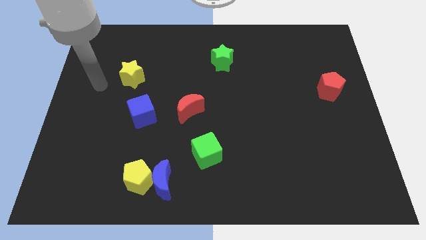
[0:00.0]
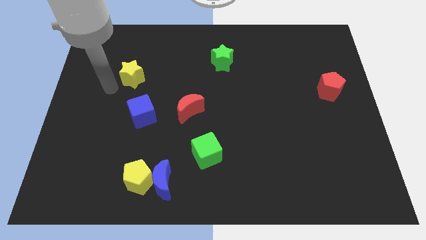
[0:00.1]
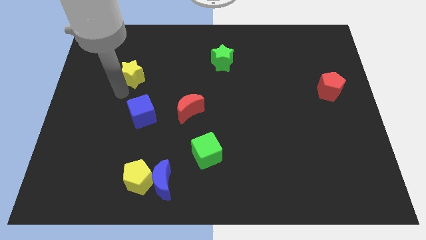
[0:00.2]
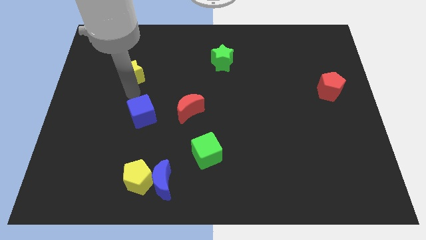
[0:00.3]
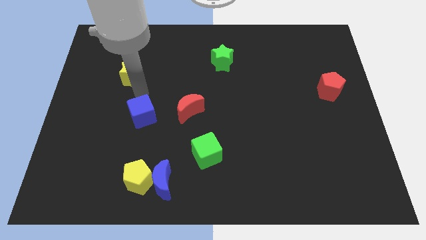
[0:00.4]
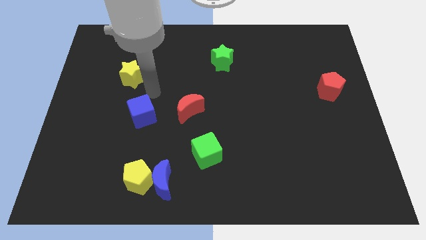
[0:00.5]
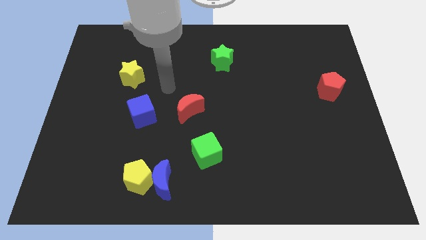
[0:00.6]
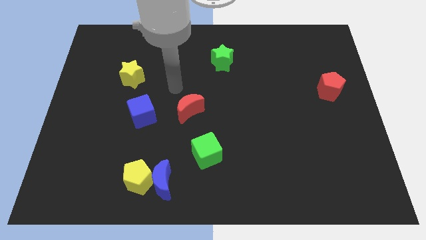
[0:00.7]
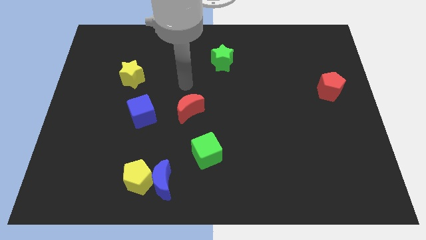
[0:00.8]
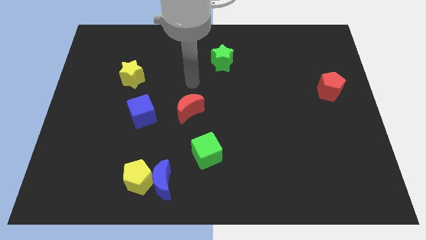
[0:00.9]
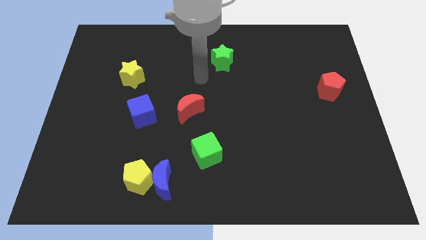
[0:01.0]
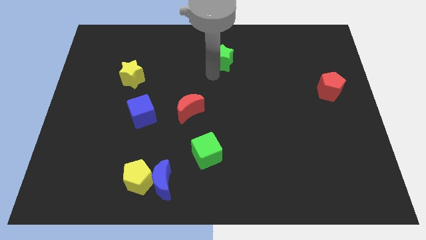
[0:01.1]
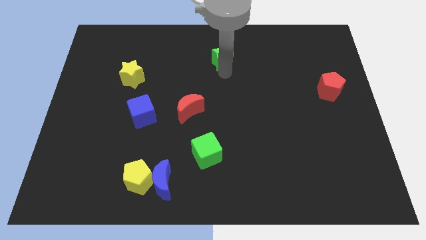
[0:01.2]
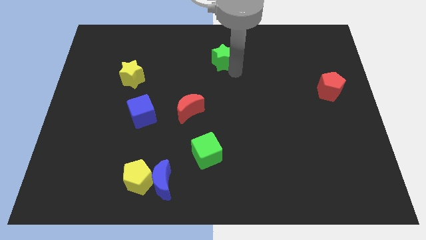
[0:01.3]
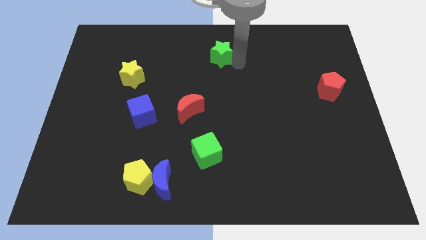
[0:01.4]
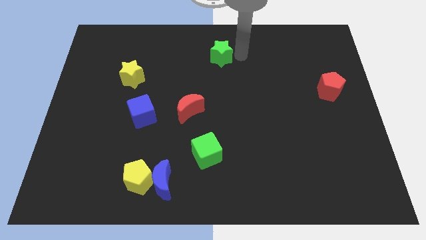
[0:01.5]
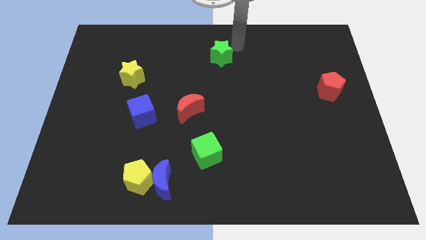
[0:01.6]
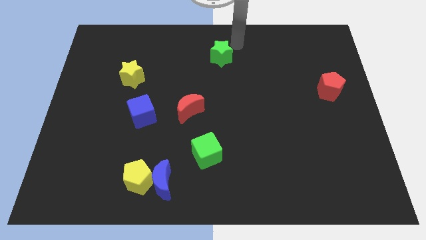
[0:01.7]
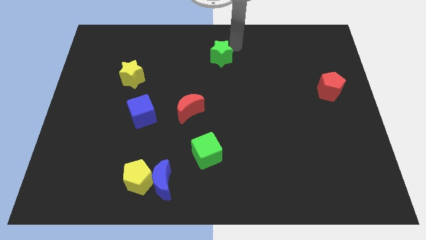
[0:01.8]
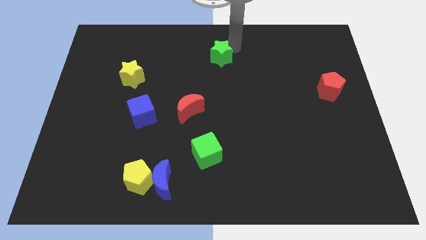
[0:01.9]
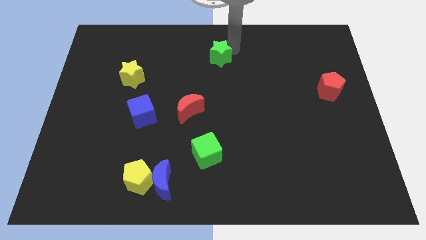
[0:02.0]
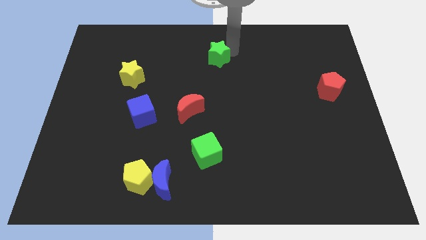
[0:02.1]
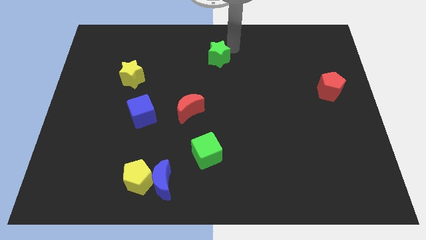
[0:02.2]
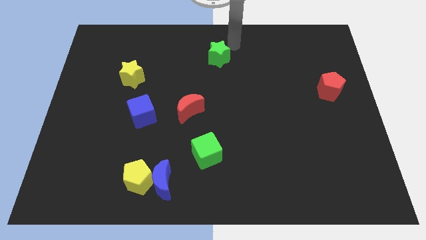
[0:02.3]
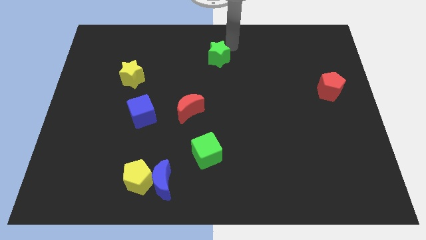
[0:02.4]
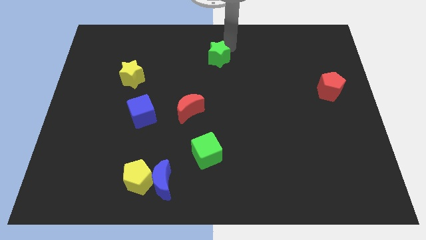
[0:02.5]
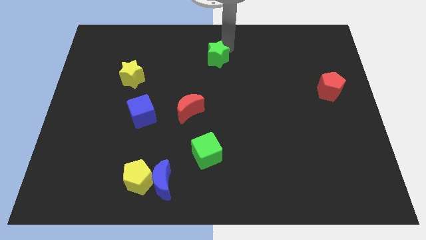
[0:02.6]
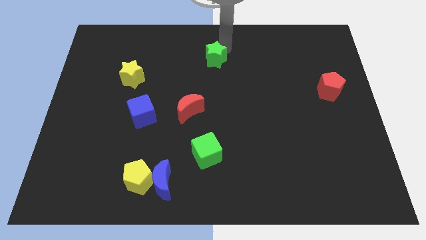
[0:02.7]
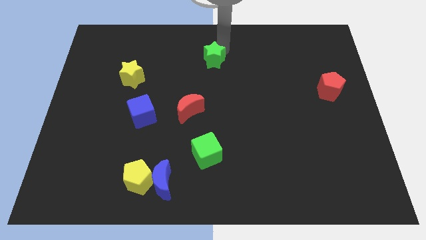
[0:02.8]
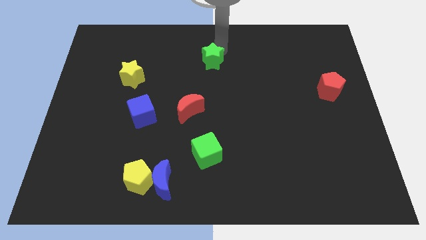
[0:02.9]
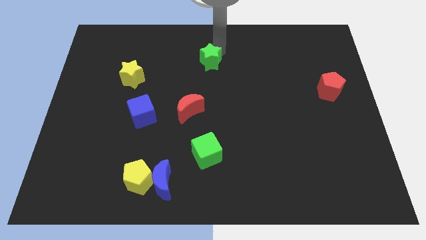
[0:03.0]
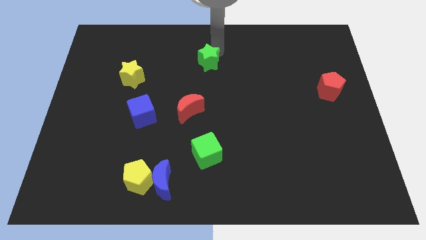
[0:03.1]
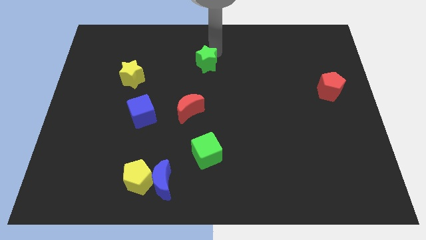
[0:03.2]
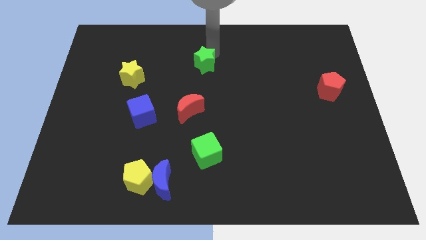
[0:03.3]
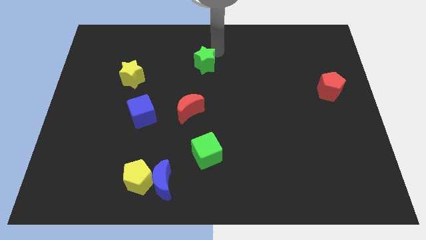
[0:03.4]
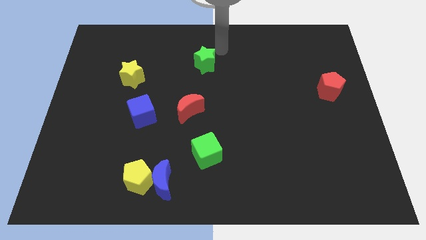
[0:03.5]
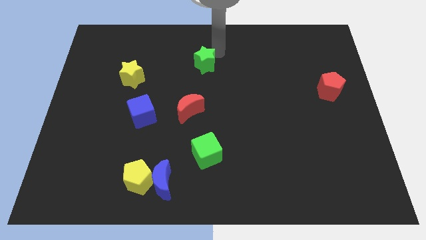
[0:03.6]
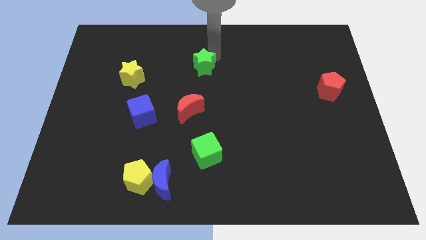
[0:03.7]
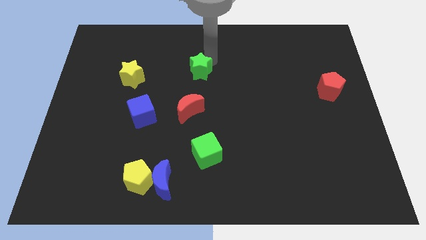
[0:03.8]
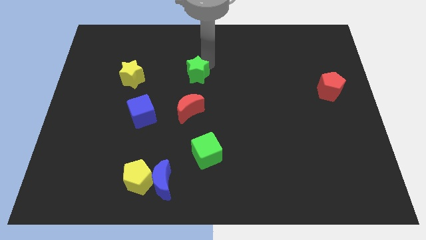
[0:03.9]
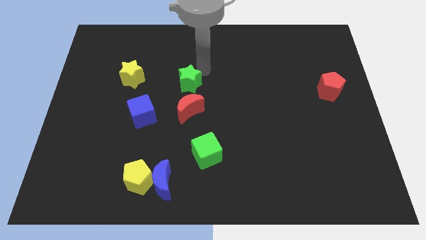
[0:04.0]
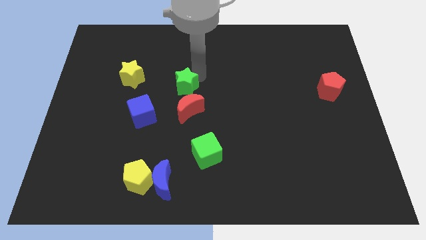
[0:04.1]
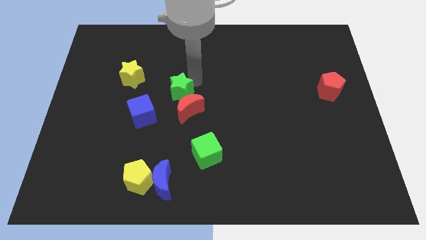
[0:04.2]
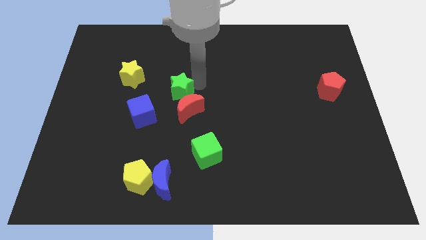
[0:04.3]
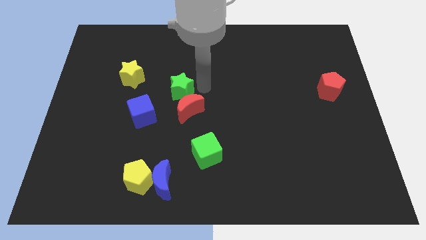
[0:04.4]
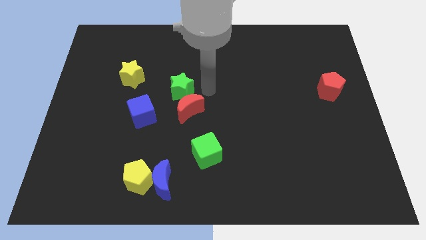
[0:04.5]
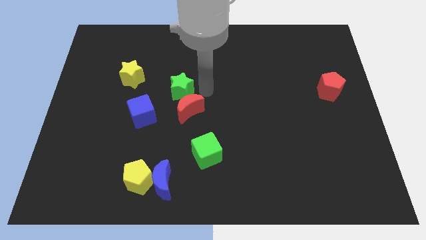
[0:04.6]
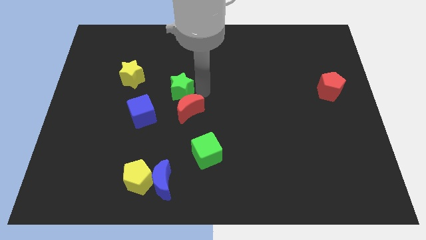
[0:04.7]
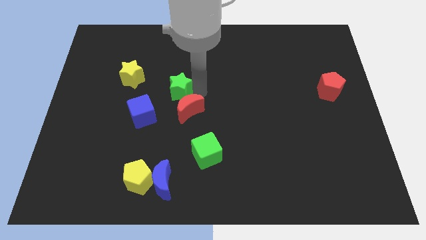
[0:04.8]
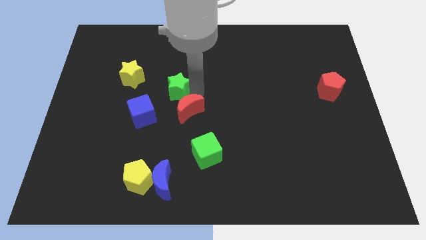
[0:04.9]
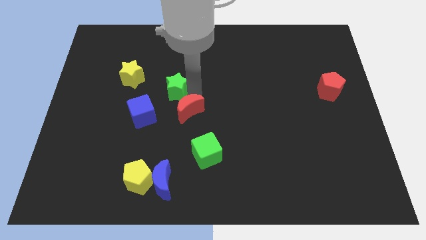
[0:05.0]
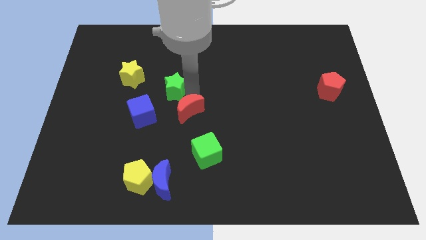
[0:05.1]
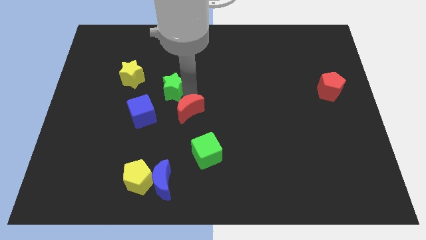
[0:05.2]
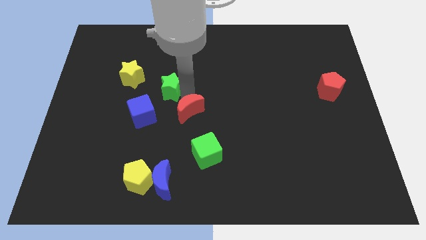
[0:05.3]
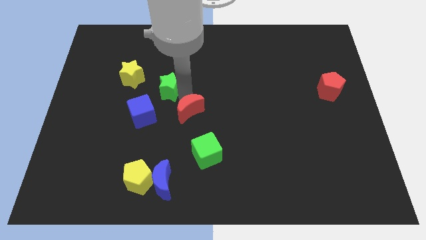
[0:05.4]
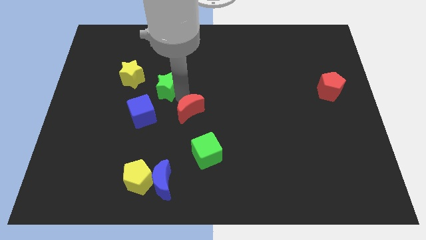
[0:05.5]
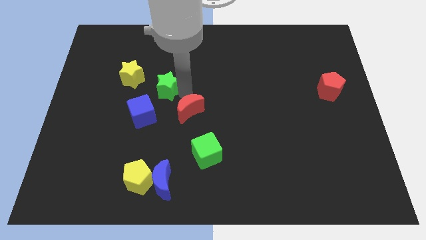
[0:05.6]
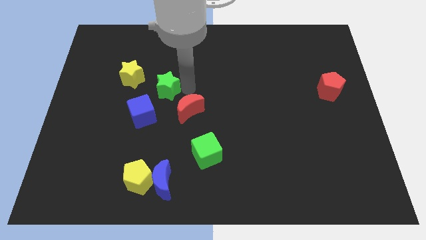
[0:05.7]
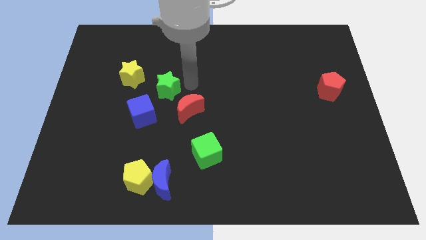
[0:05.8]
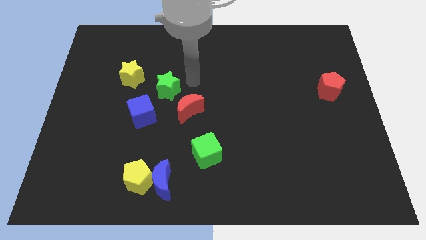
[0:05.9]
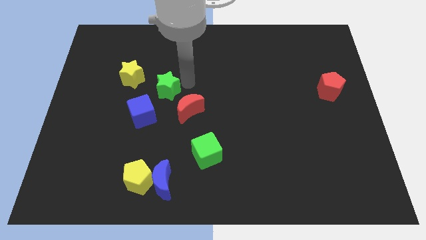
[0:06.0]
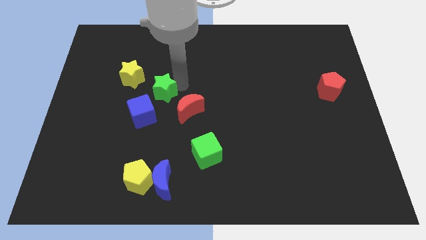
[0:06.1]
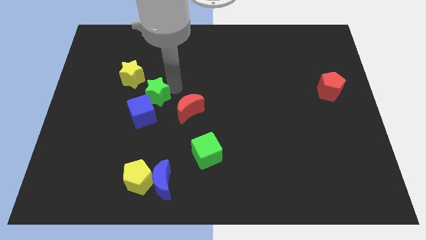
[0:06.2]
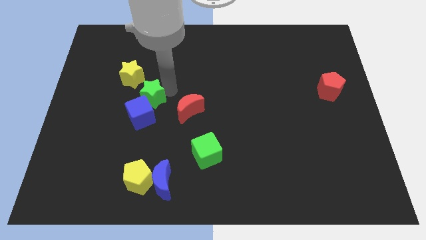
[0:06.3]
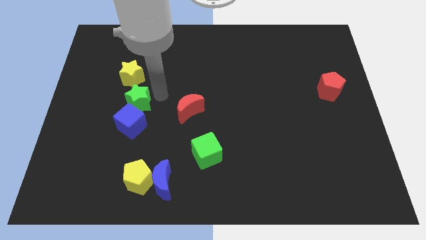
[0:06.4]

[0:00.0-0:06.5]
slide the green star to the bottom of the yellow star
